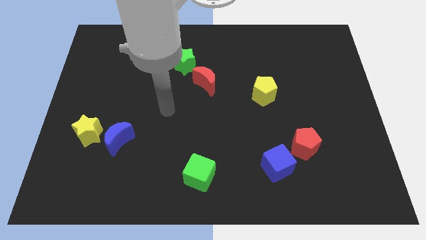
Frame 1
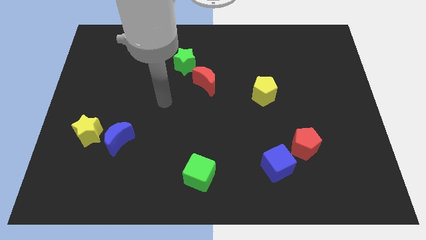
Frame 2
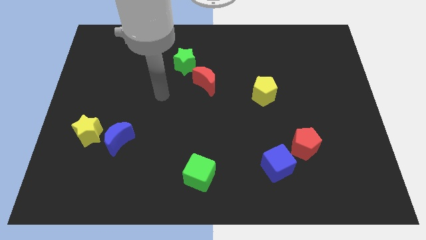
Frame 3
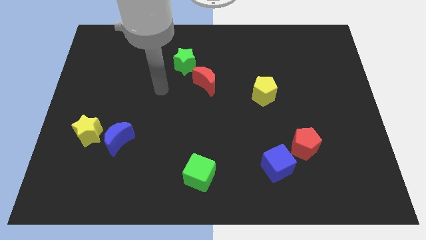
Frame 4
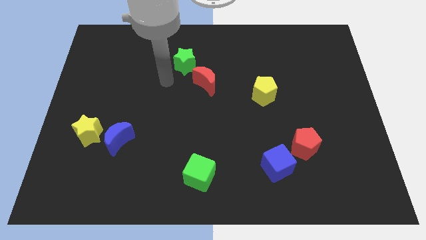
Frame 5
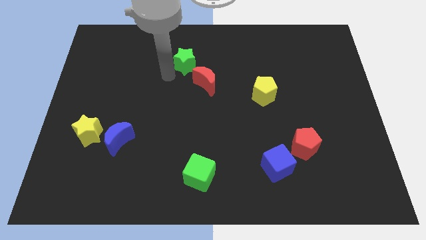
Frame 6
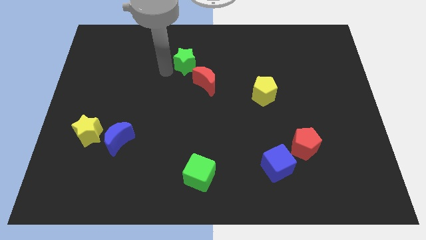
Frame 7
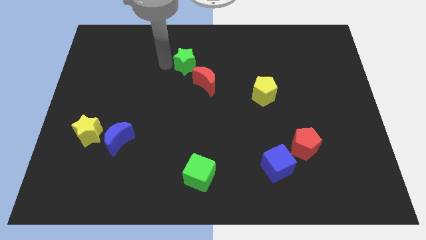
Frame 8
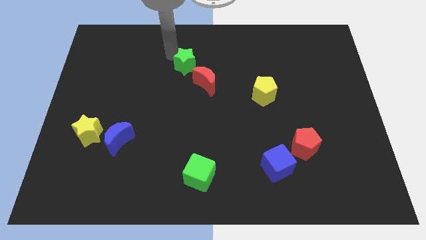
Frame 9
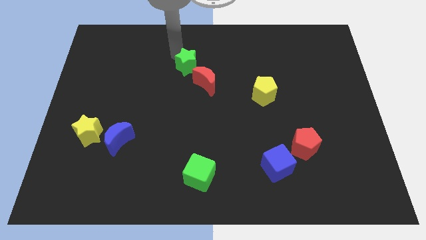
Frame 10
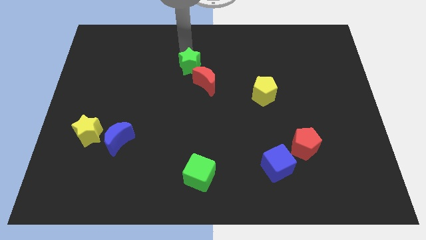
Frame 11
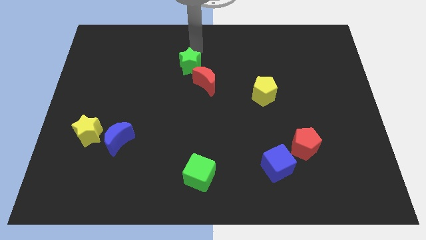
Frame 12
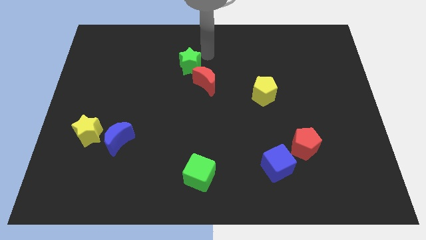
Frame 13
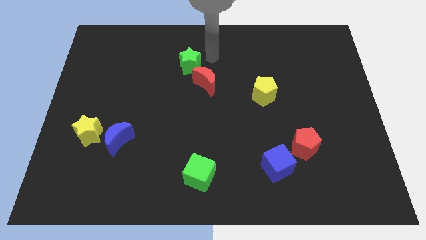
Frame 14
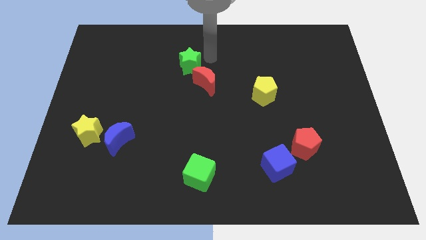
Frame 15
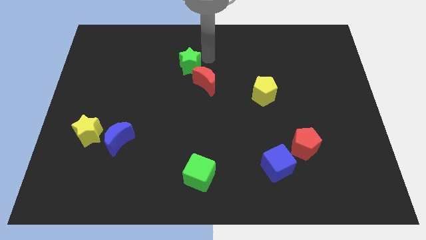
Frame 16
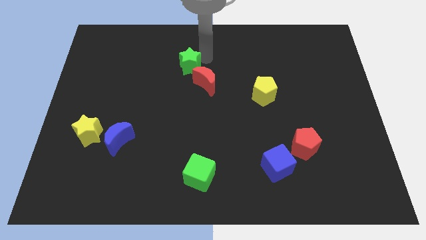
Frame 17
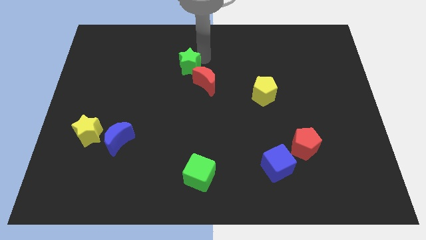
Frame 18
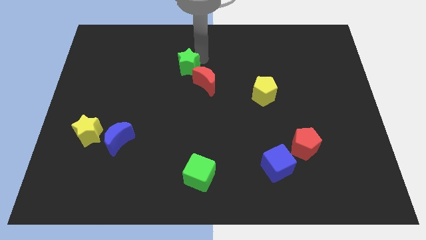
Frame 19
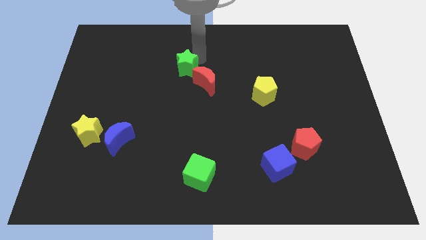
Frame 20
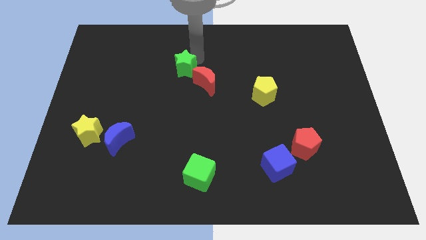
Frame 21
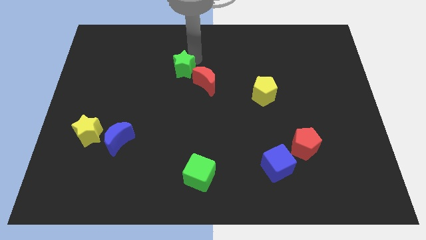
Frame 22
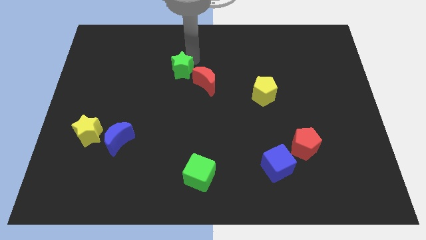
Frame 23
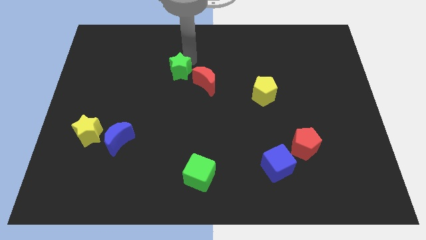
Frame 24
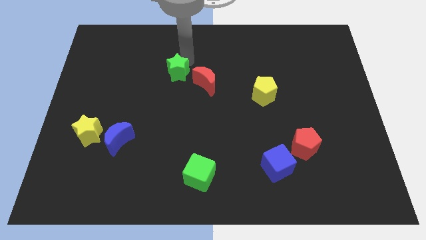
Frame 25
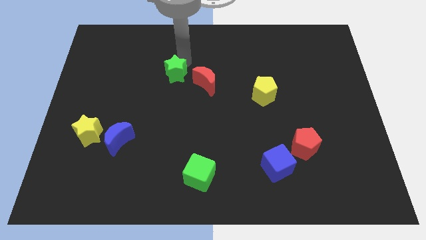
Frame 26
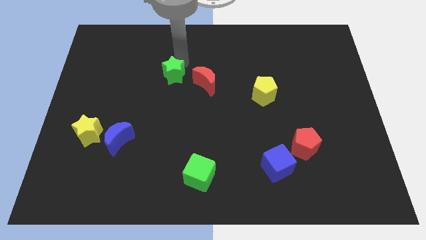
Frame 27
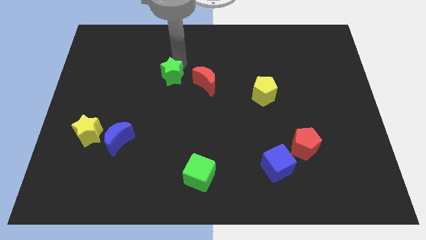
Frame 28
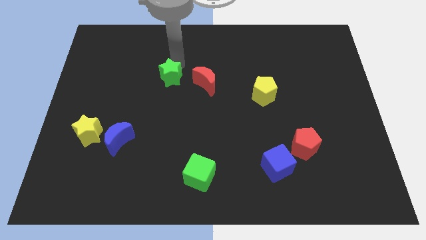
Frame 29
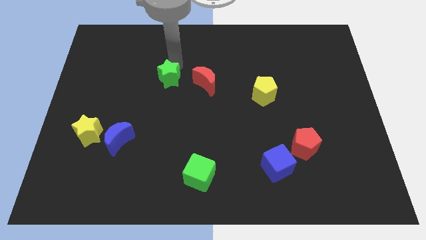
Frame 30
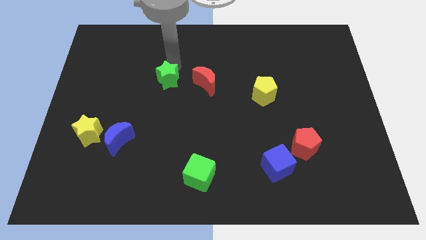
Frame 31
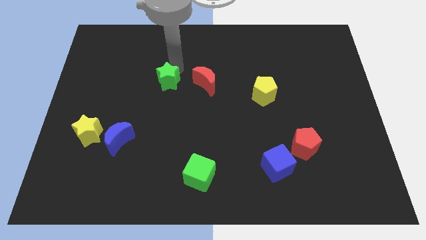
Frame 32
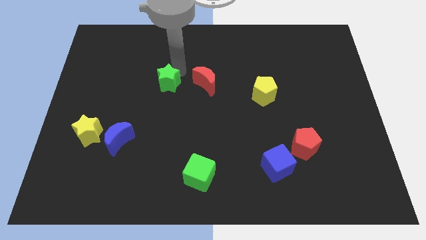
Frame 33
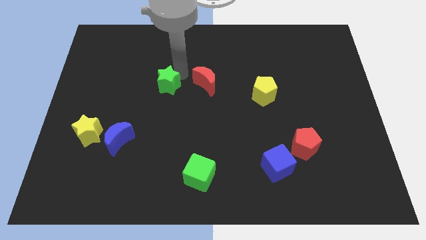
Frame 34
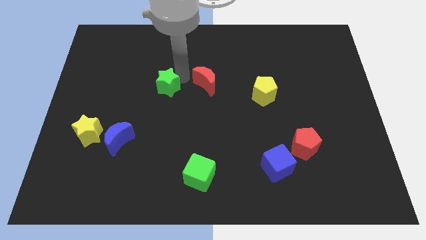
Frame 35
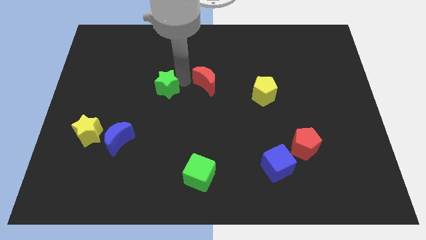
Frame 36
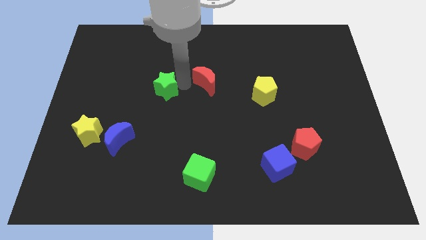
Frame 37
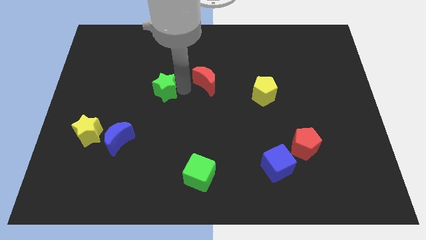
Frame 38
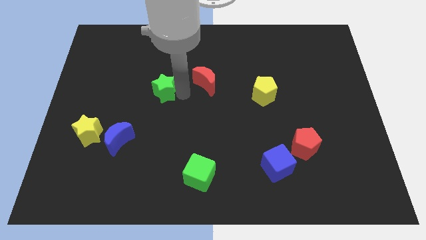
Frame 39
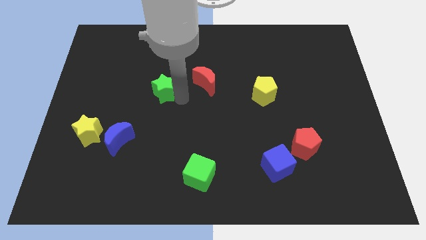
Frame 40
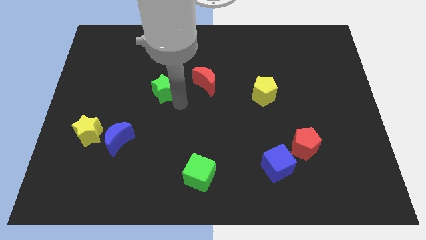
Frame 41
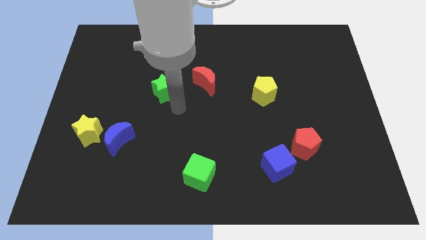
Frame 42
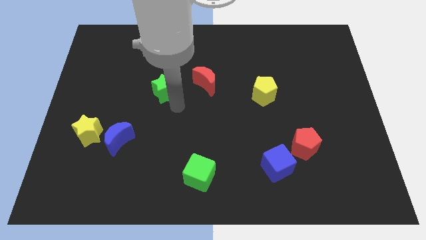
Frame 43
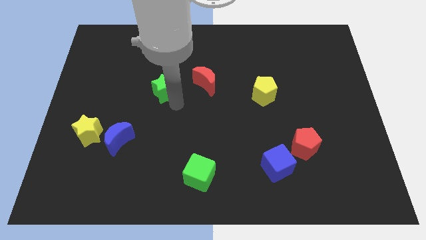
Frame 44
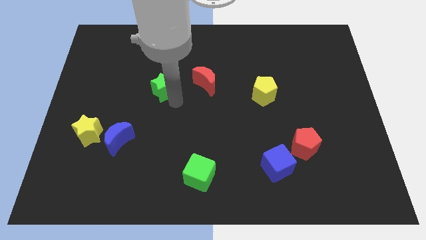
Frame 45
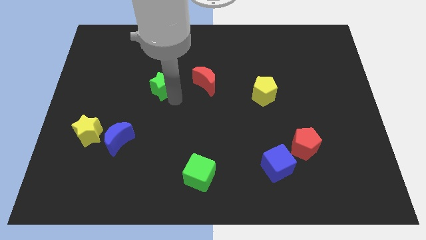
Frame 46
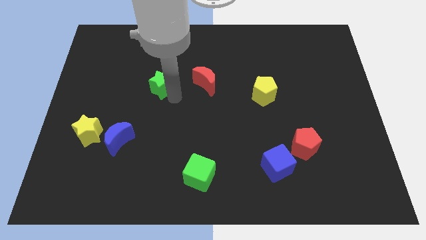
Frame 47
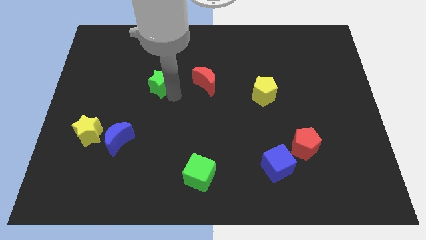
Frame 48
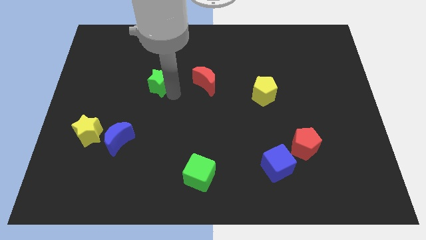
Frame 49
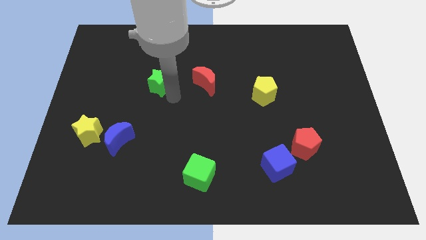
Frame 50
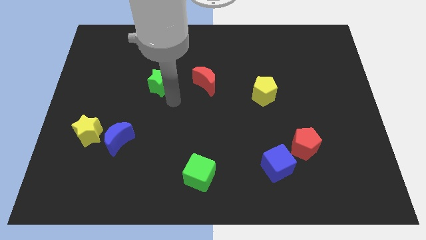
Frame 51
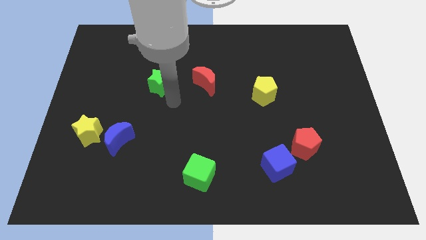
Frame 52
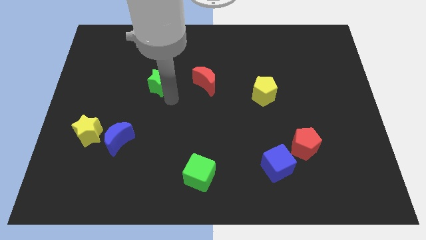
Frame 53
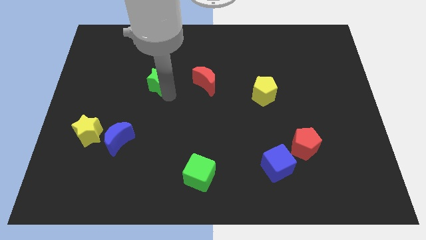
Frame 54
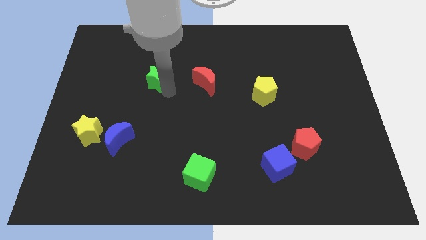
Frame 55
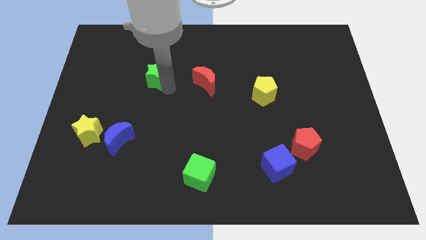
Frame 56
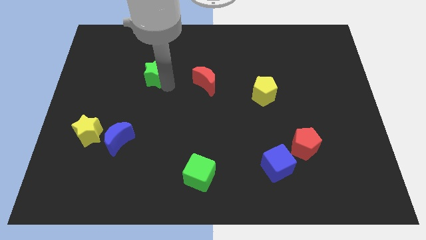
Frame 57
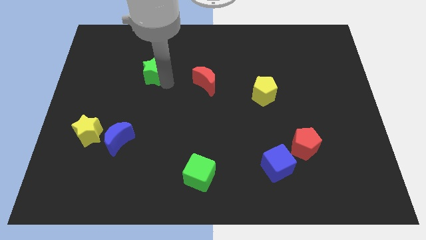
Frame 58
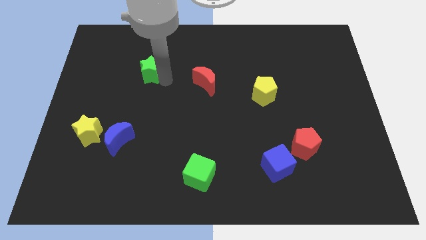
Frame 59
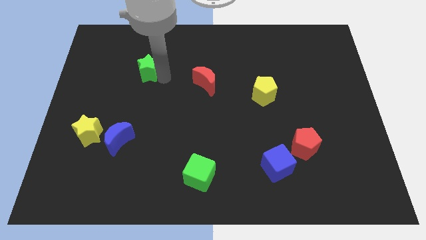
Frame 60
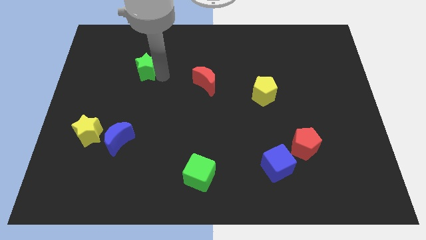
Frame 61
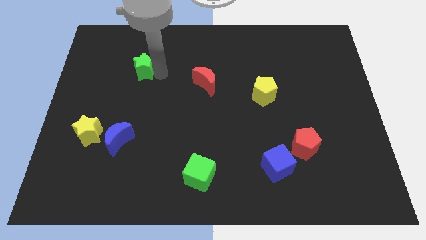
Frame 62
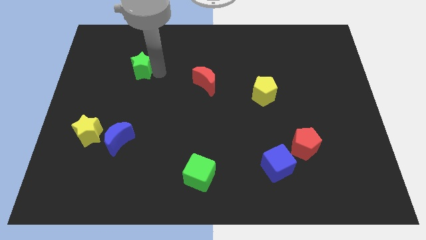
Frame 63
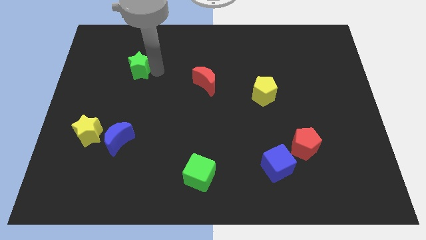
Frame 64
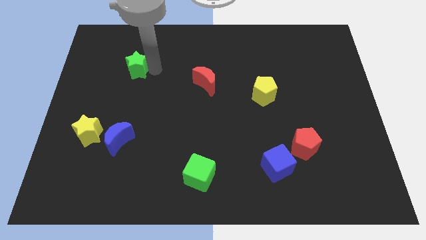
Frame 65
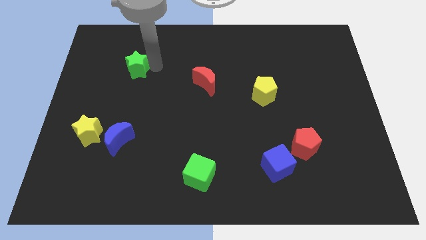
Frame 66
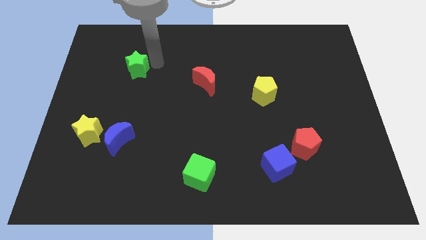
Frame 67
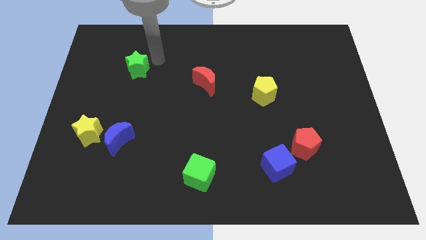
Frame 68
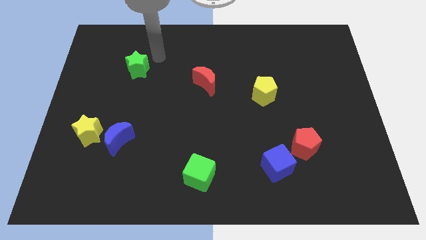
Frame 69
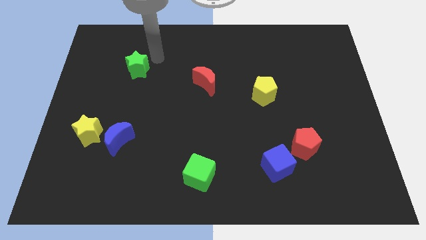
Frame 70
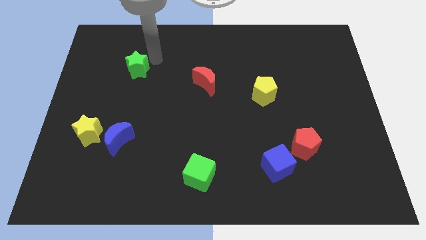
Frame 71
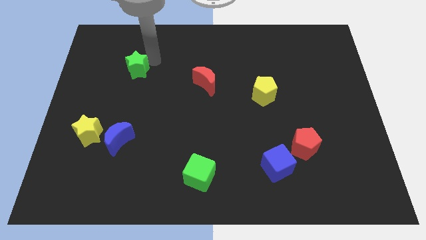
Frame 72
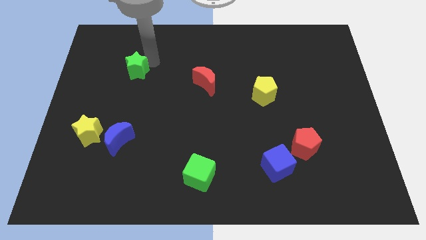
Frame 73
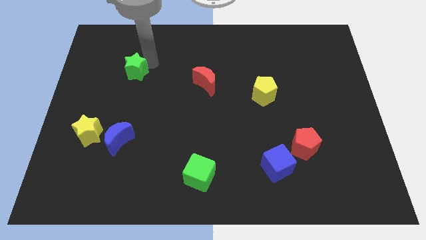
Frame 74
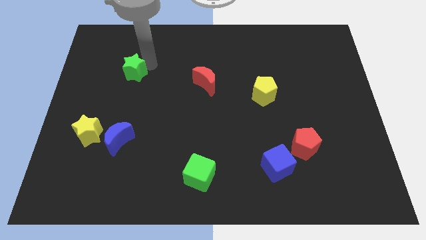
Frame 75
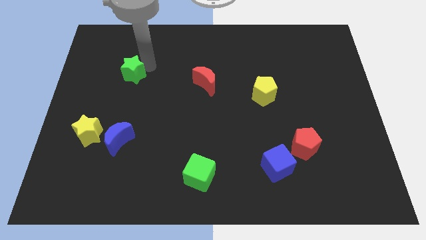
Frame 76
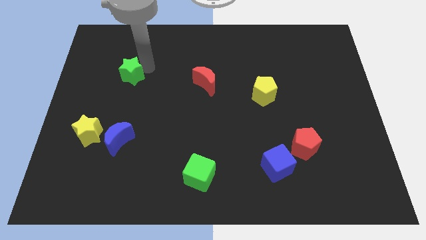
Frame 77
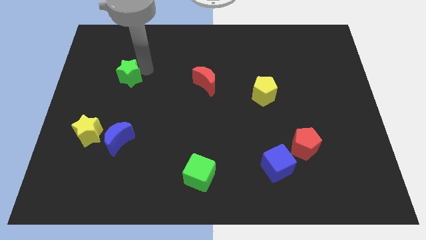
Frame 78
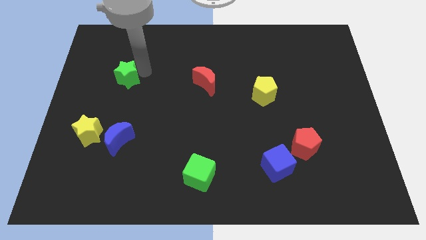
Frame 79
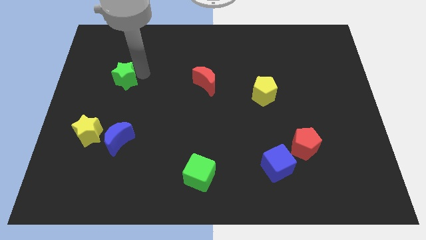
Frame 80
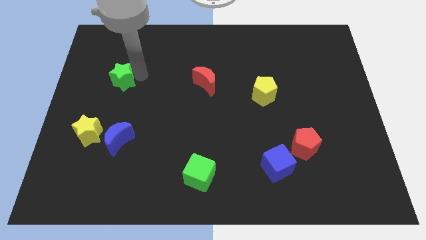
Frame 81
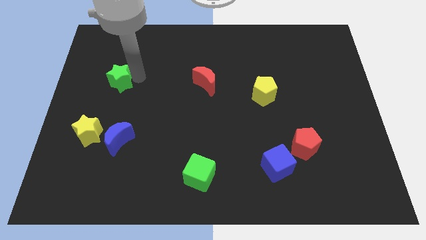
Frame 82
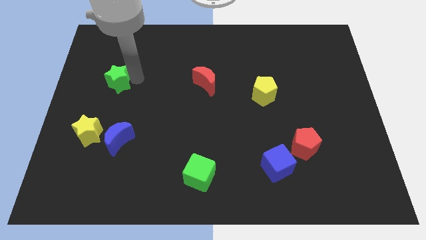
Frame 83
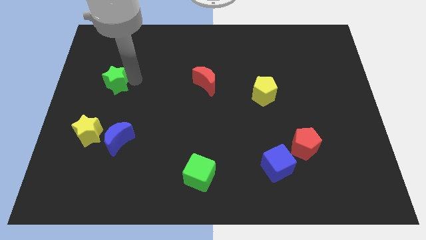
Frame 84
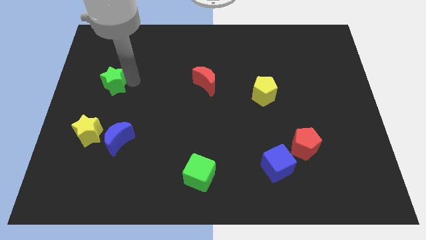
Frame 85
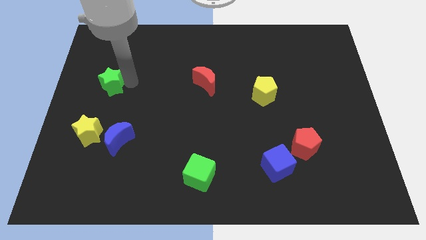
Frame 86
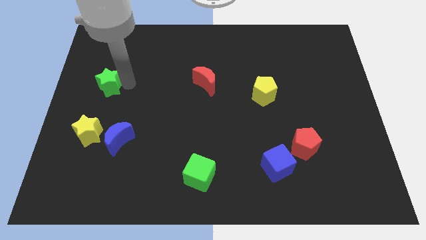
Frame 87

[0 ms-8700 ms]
slide the green star to the left side of the board
